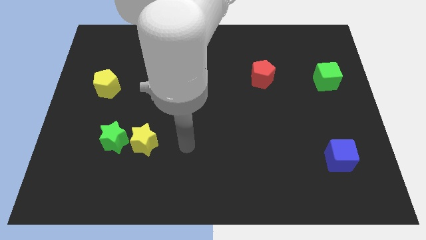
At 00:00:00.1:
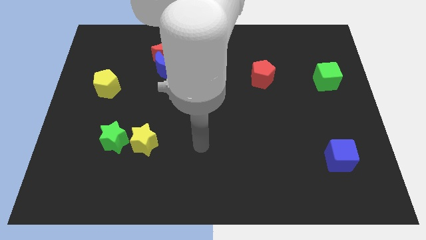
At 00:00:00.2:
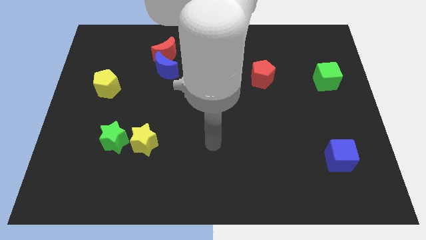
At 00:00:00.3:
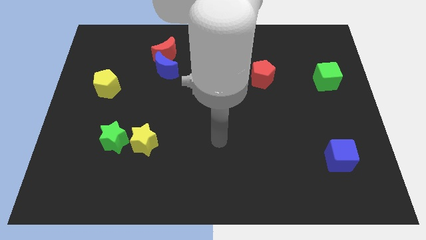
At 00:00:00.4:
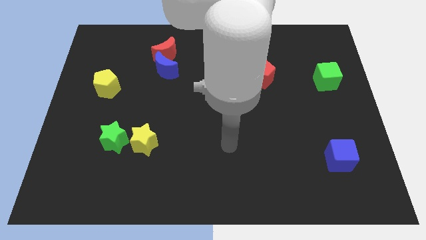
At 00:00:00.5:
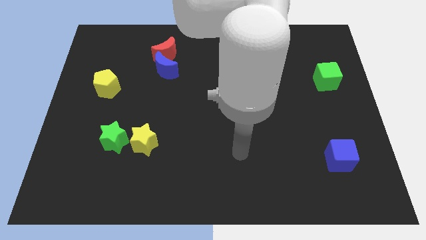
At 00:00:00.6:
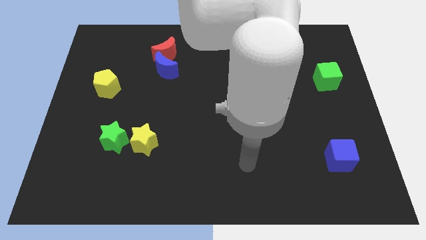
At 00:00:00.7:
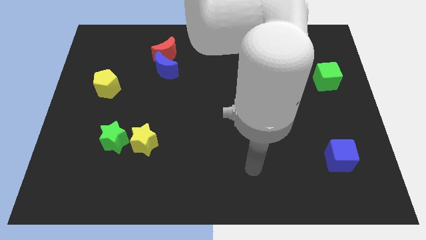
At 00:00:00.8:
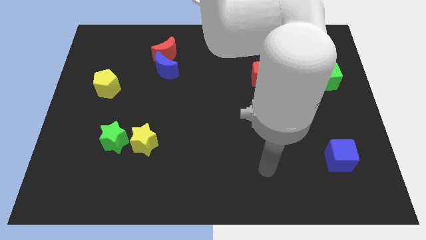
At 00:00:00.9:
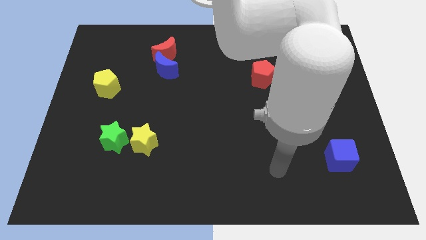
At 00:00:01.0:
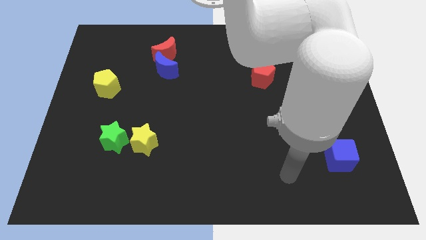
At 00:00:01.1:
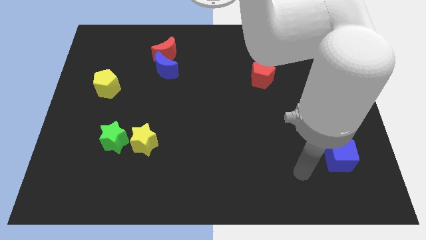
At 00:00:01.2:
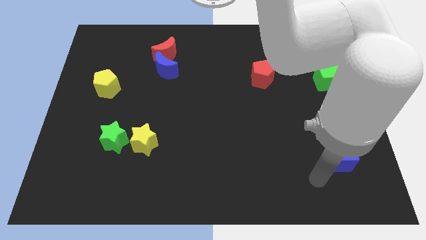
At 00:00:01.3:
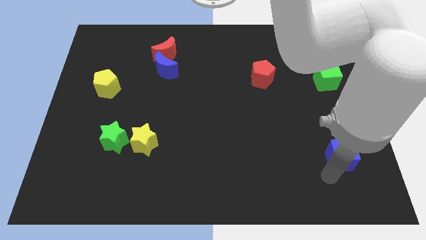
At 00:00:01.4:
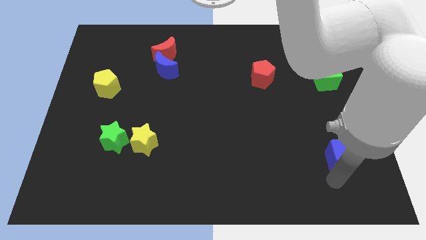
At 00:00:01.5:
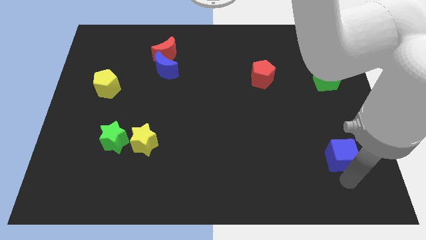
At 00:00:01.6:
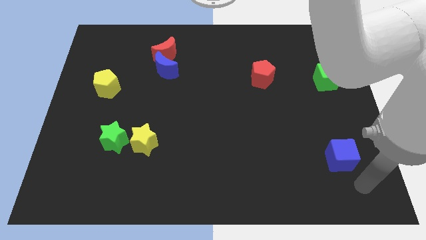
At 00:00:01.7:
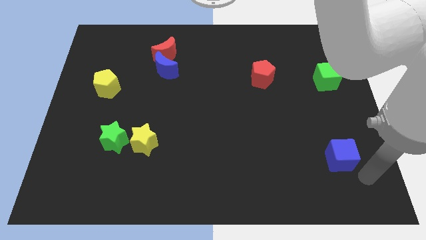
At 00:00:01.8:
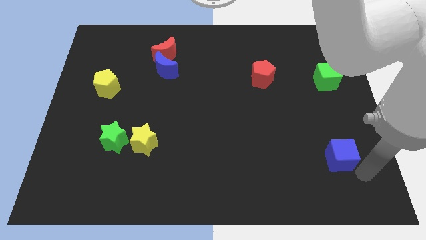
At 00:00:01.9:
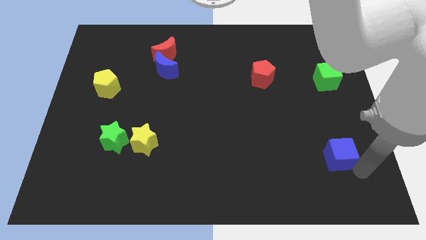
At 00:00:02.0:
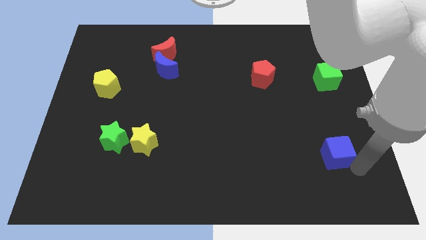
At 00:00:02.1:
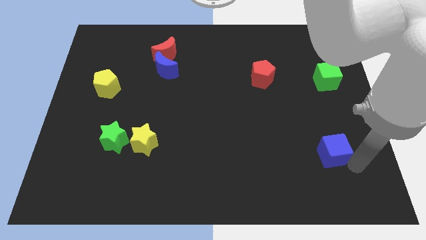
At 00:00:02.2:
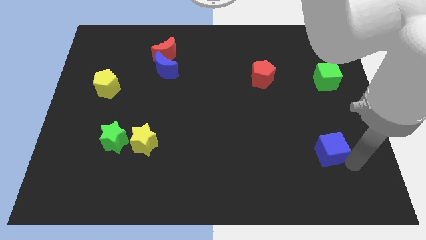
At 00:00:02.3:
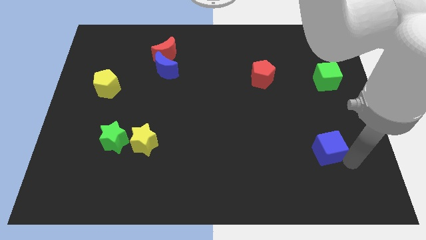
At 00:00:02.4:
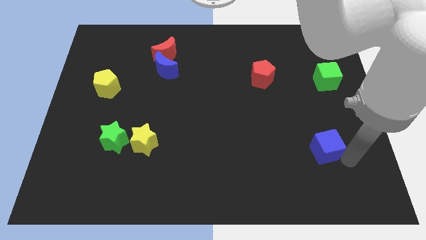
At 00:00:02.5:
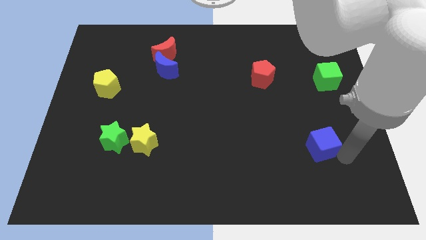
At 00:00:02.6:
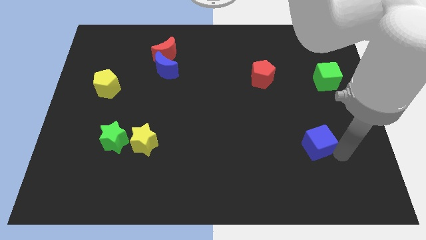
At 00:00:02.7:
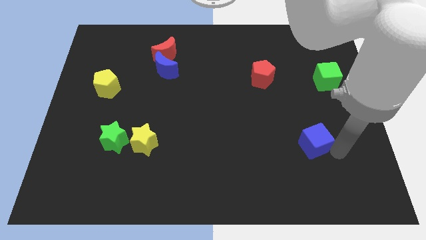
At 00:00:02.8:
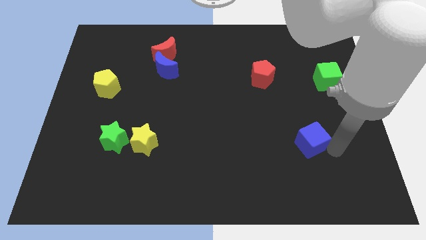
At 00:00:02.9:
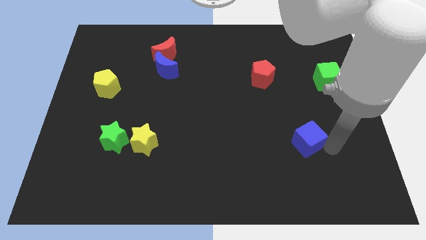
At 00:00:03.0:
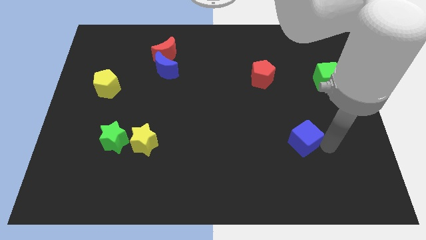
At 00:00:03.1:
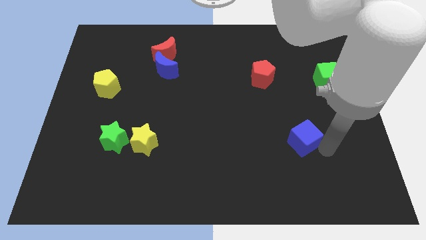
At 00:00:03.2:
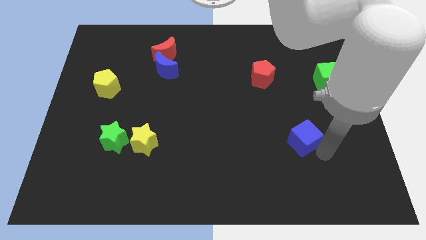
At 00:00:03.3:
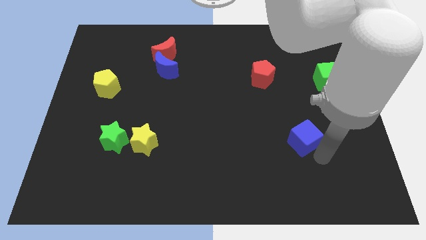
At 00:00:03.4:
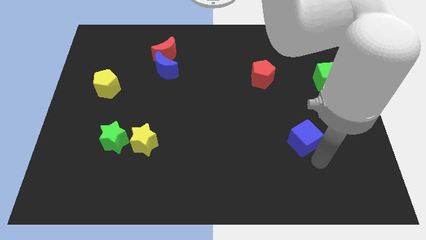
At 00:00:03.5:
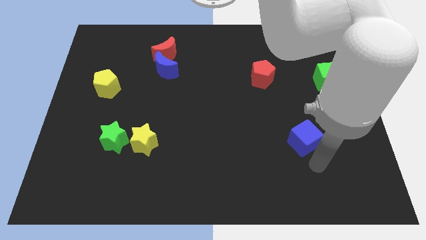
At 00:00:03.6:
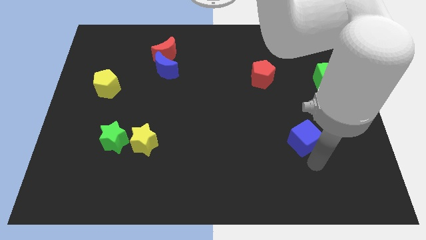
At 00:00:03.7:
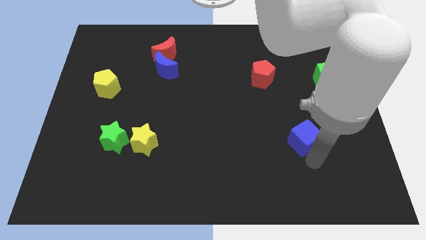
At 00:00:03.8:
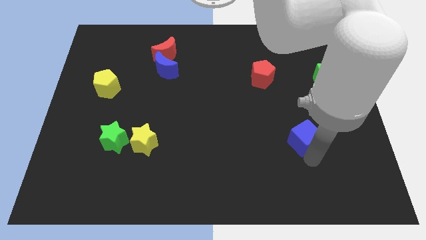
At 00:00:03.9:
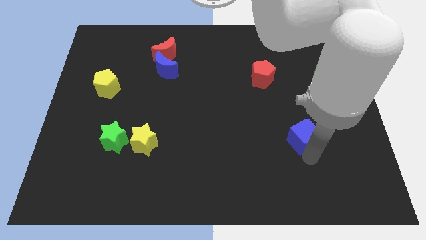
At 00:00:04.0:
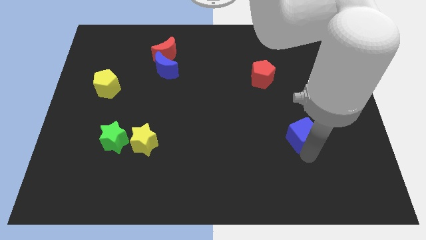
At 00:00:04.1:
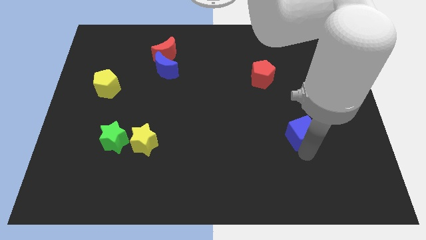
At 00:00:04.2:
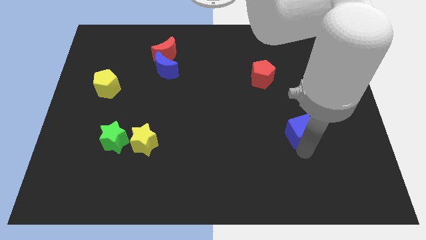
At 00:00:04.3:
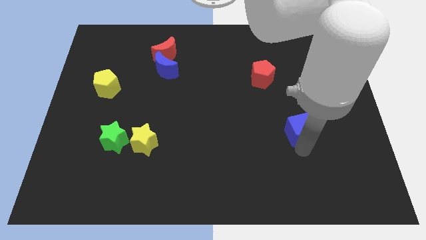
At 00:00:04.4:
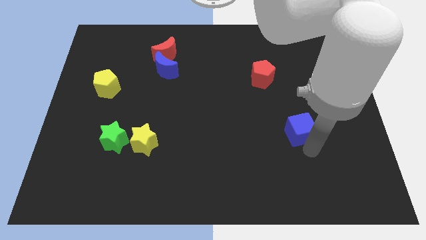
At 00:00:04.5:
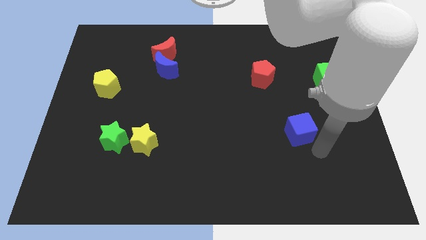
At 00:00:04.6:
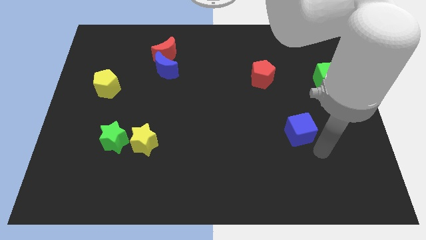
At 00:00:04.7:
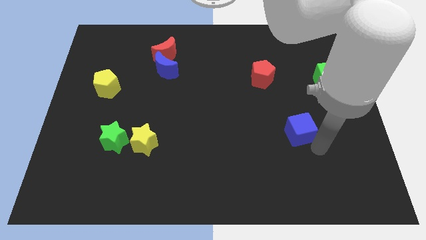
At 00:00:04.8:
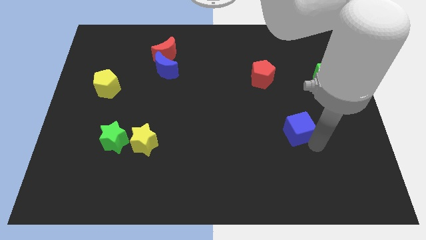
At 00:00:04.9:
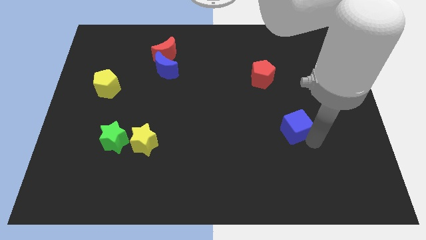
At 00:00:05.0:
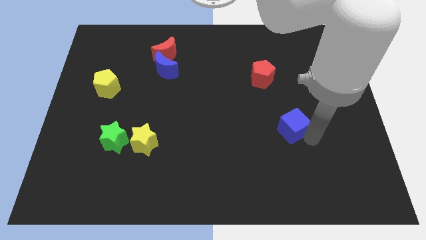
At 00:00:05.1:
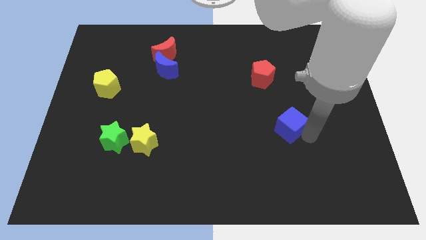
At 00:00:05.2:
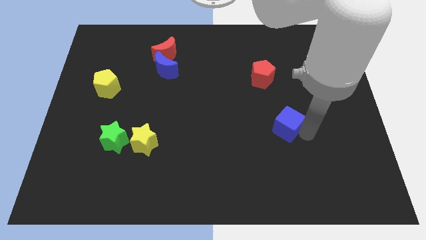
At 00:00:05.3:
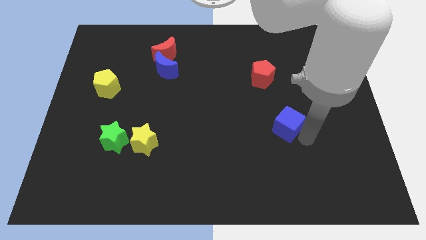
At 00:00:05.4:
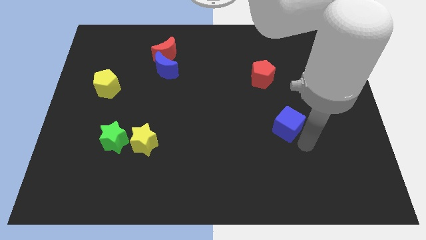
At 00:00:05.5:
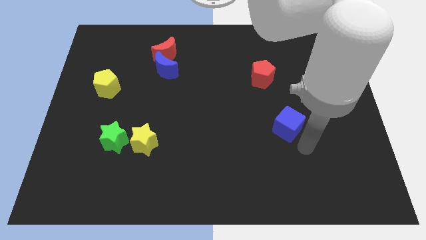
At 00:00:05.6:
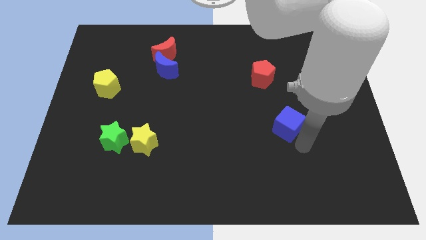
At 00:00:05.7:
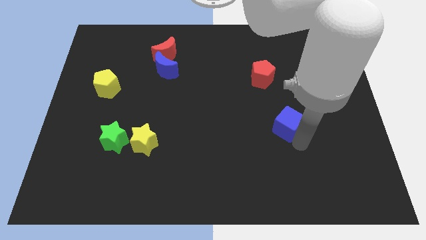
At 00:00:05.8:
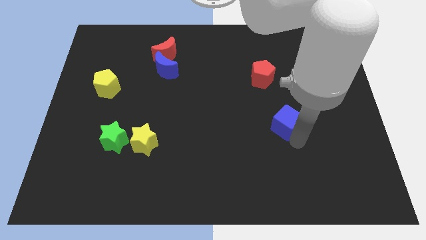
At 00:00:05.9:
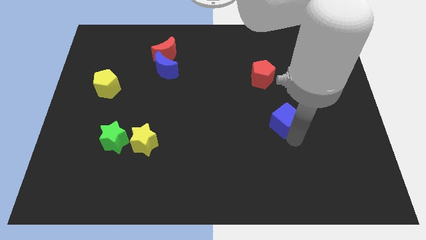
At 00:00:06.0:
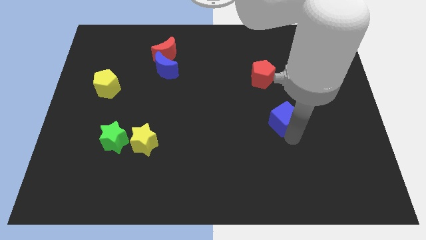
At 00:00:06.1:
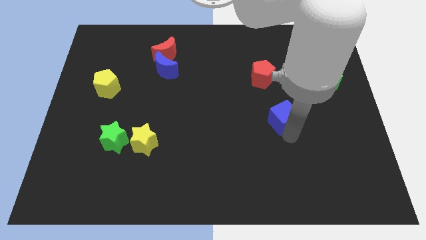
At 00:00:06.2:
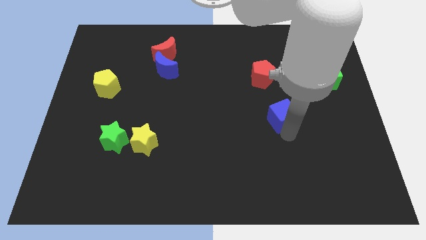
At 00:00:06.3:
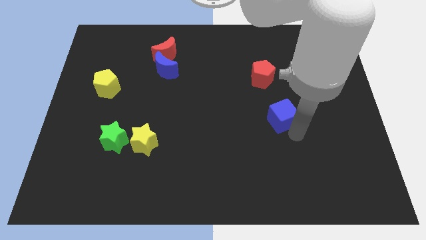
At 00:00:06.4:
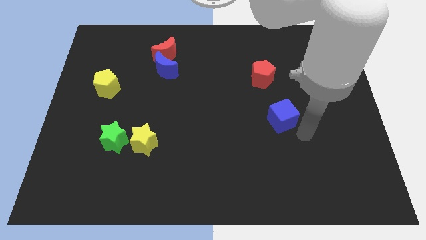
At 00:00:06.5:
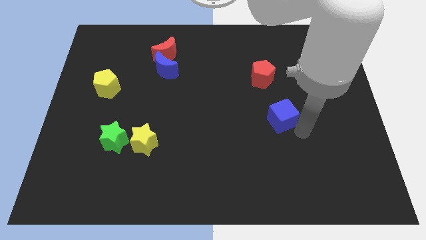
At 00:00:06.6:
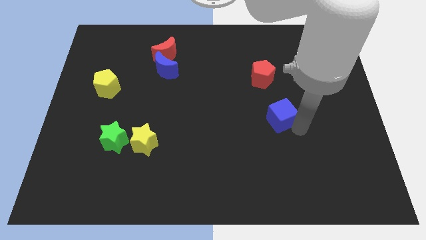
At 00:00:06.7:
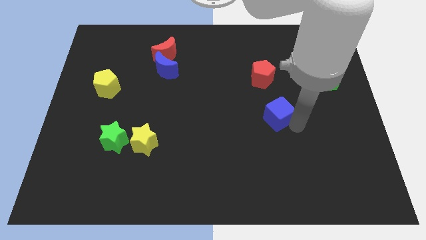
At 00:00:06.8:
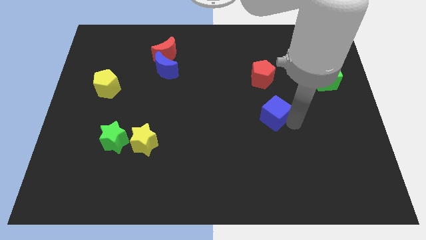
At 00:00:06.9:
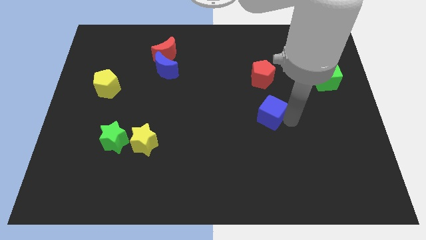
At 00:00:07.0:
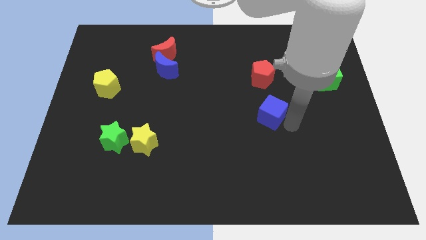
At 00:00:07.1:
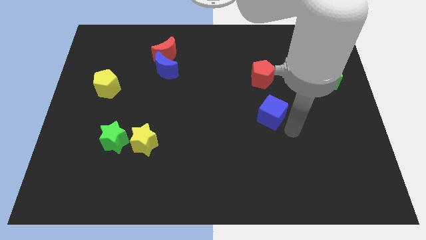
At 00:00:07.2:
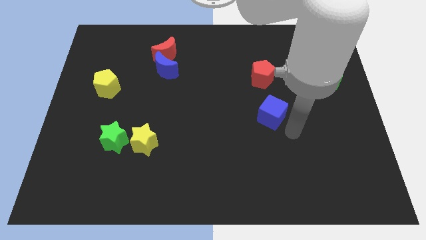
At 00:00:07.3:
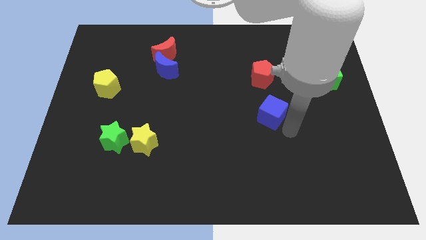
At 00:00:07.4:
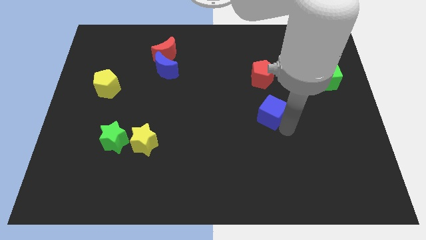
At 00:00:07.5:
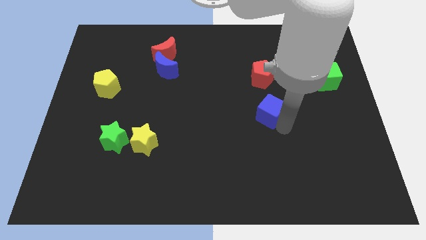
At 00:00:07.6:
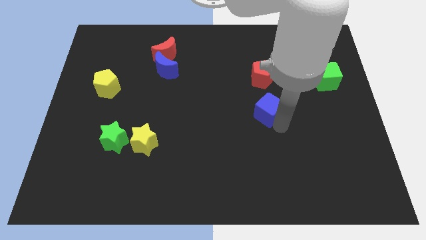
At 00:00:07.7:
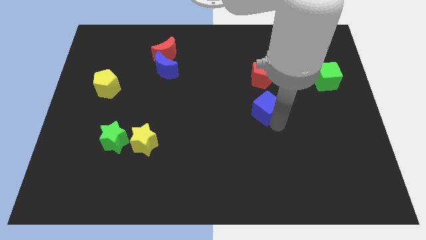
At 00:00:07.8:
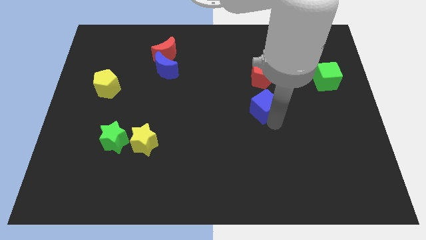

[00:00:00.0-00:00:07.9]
push the blue cube diagonally up and to the left
